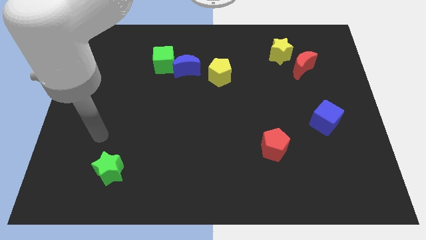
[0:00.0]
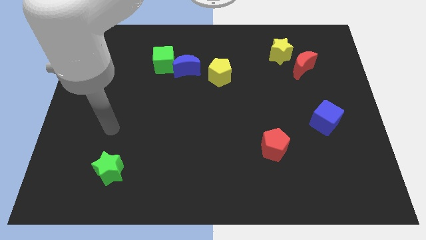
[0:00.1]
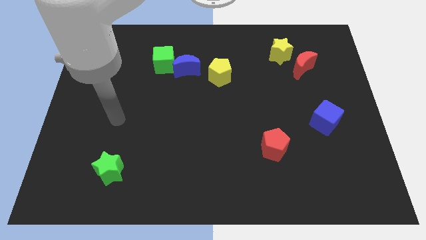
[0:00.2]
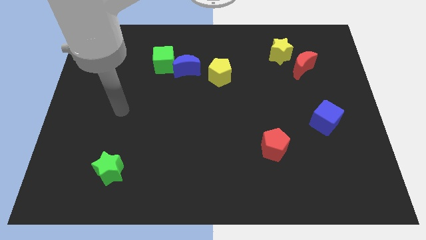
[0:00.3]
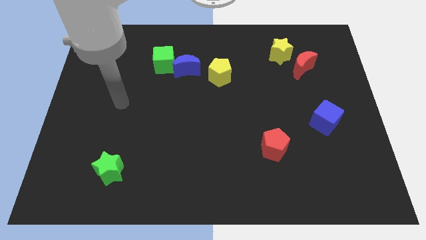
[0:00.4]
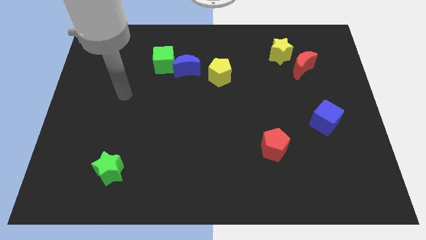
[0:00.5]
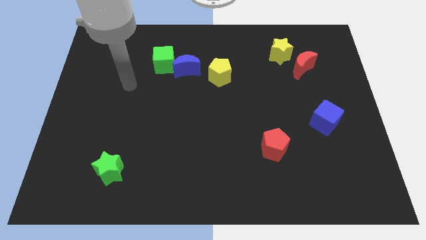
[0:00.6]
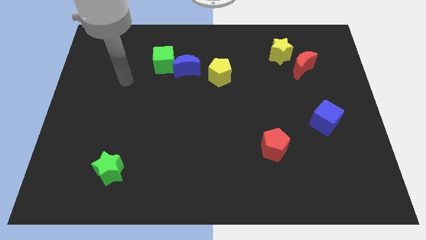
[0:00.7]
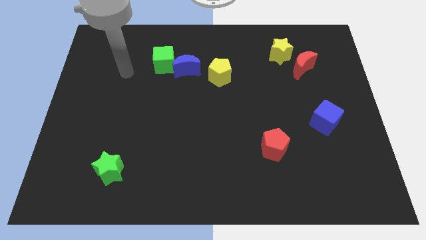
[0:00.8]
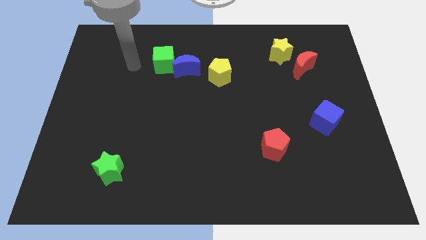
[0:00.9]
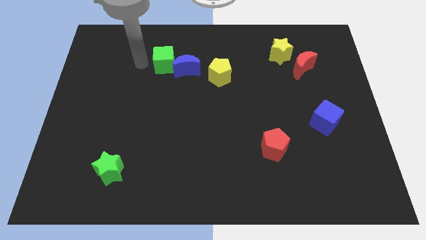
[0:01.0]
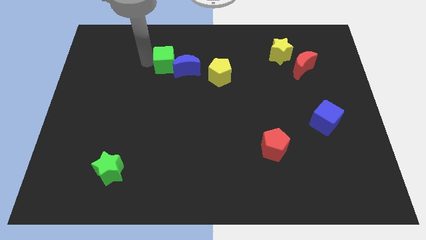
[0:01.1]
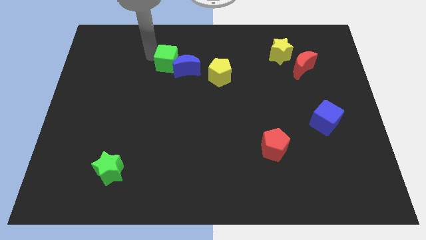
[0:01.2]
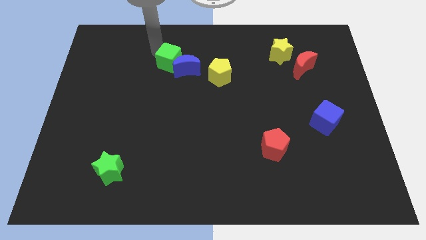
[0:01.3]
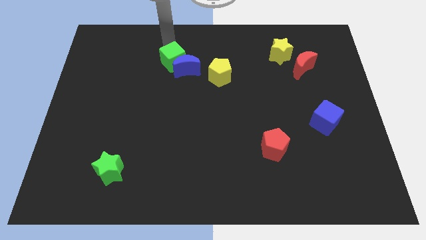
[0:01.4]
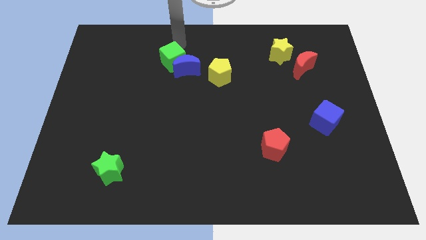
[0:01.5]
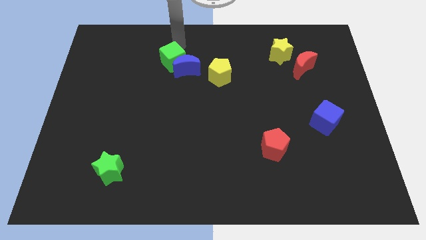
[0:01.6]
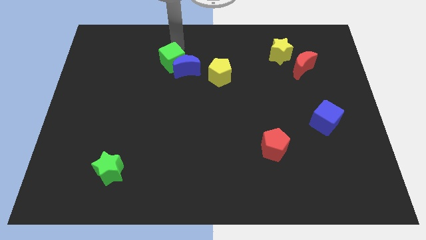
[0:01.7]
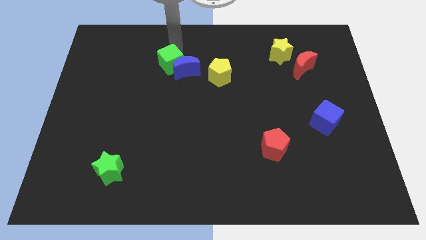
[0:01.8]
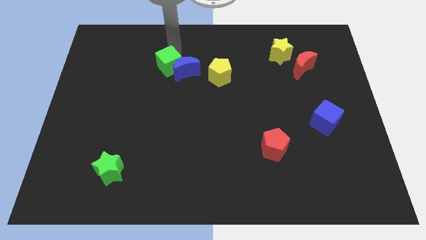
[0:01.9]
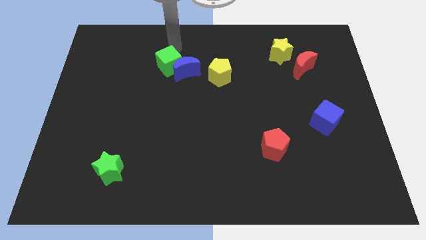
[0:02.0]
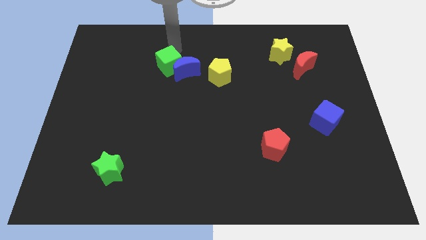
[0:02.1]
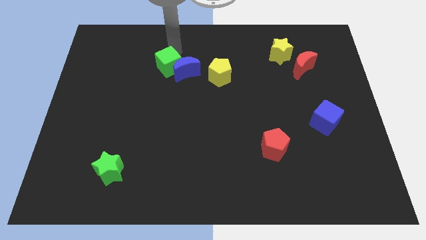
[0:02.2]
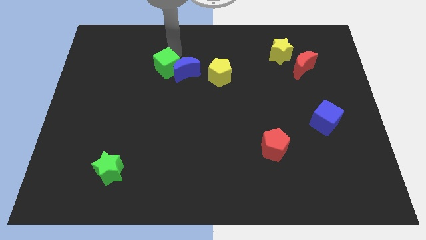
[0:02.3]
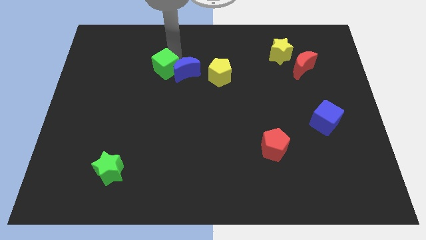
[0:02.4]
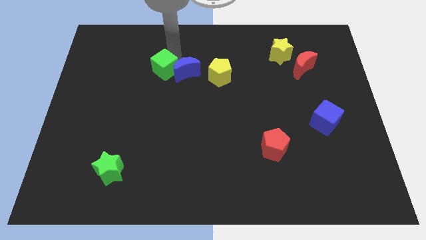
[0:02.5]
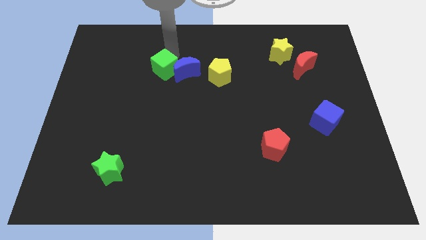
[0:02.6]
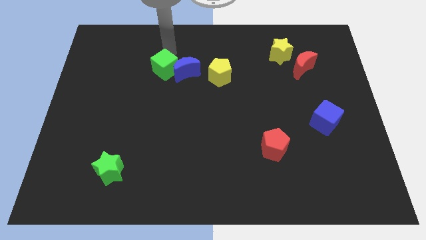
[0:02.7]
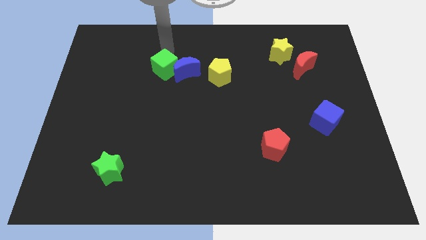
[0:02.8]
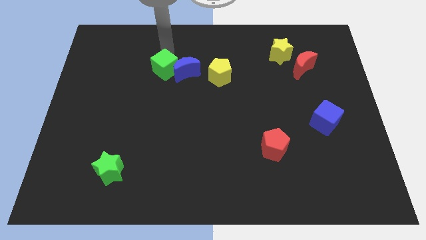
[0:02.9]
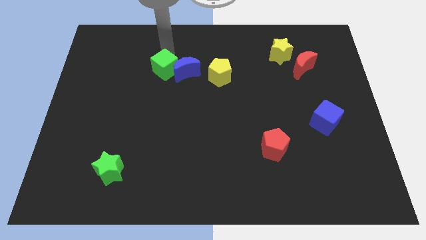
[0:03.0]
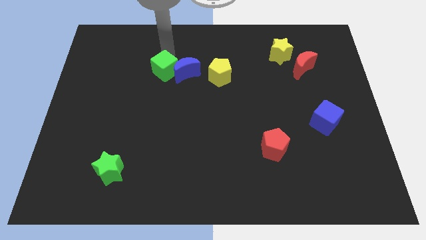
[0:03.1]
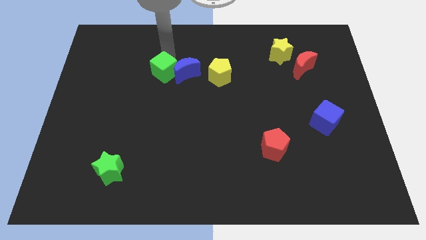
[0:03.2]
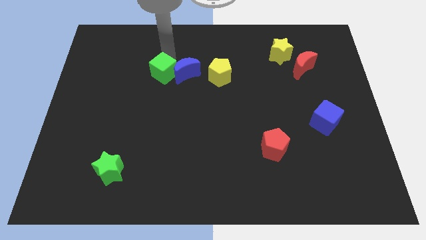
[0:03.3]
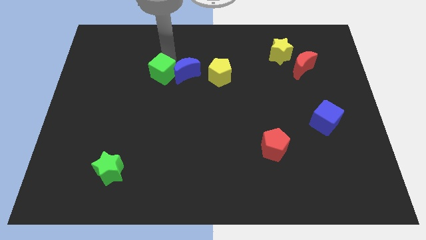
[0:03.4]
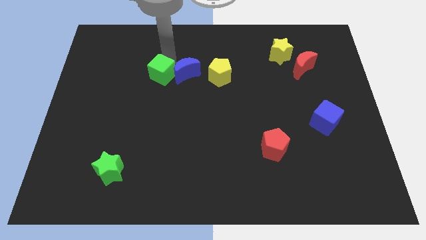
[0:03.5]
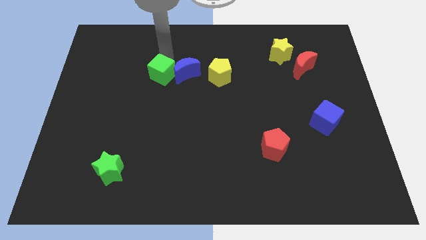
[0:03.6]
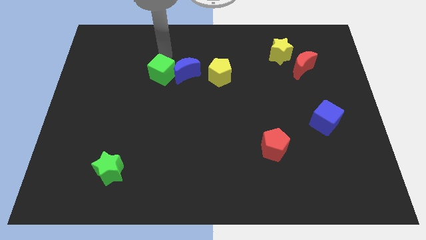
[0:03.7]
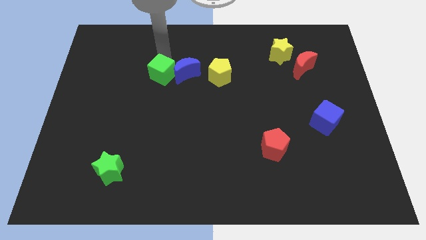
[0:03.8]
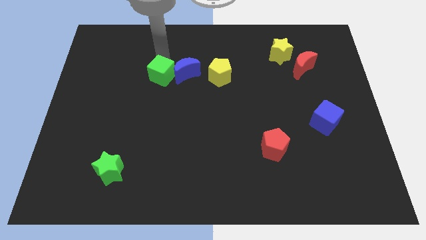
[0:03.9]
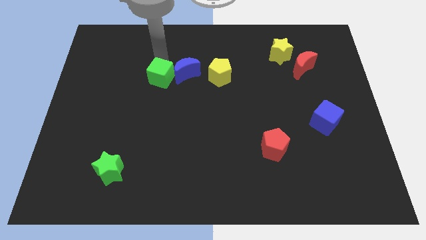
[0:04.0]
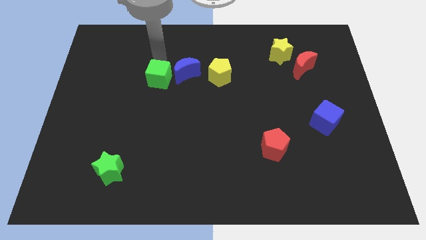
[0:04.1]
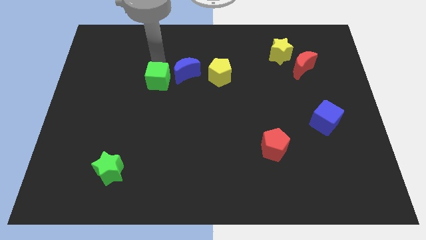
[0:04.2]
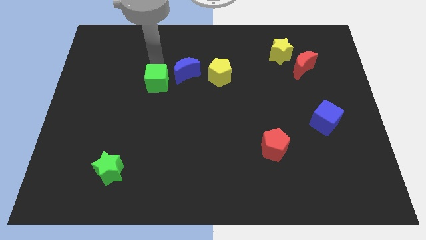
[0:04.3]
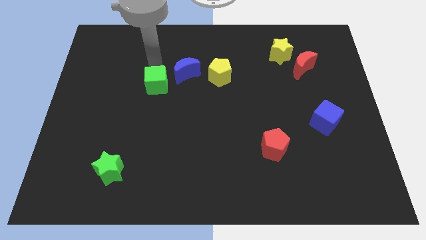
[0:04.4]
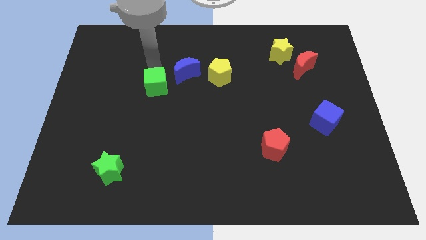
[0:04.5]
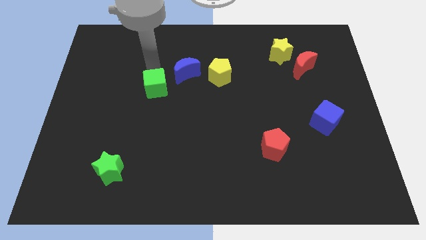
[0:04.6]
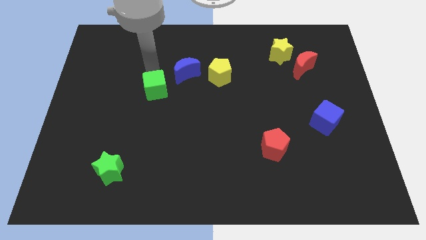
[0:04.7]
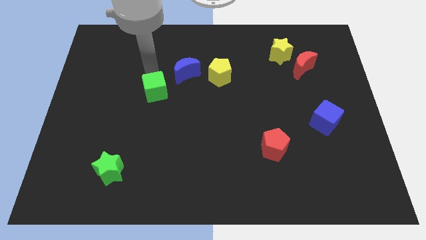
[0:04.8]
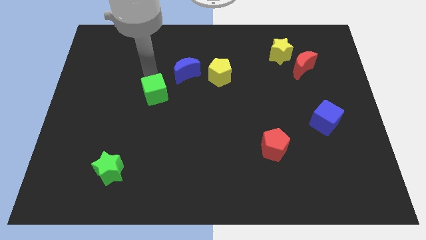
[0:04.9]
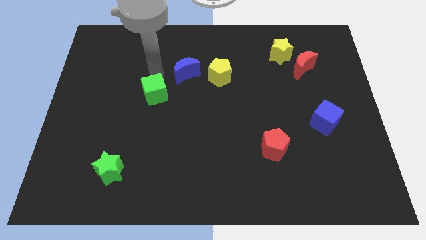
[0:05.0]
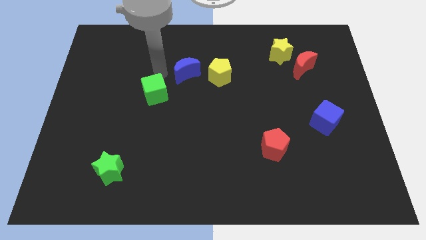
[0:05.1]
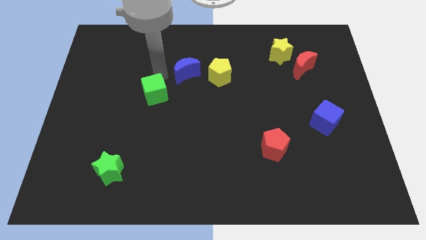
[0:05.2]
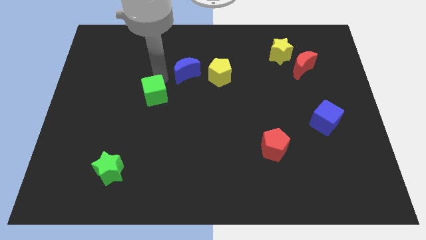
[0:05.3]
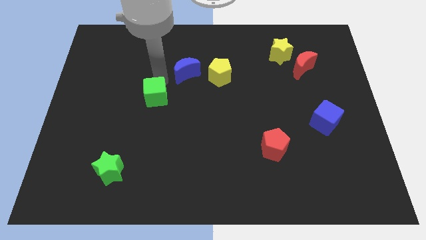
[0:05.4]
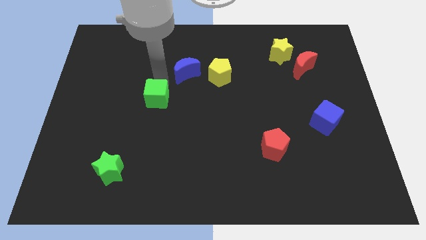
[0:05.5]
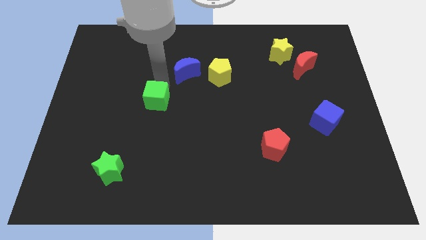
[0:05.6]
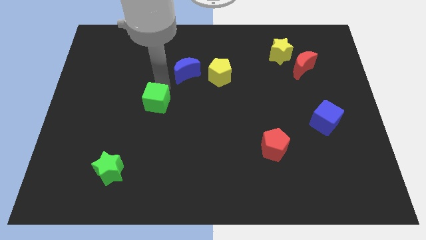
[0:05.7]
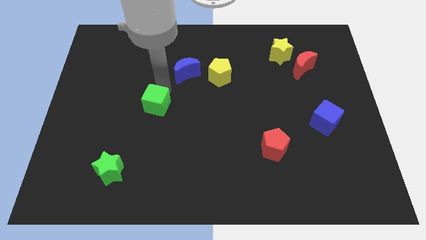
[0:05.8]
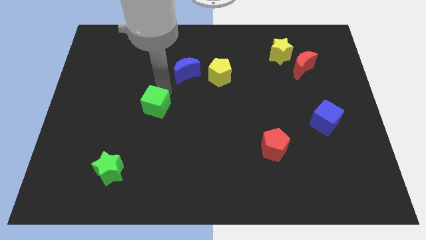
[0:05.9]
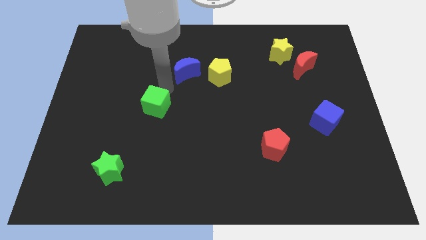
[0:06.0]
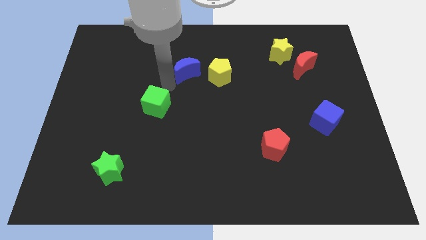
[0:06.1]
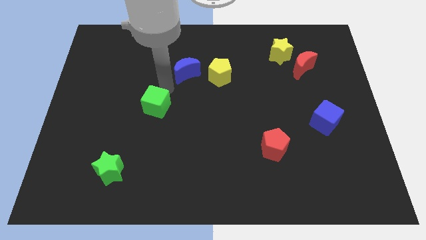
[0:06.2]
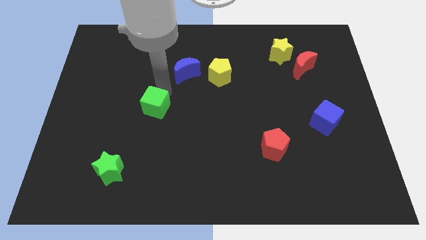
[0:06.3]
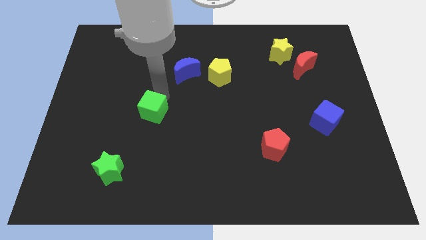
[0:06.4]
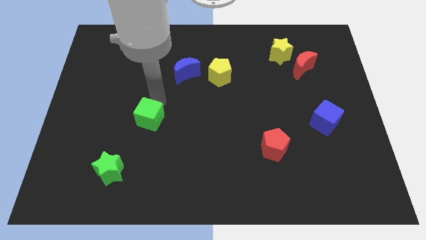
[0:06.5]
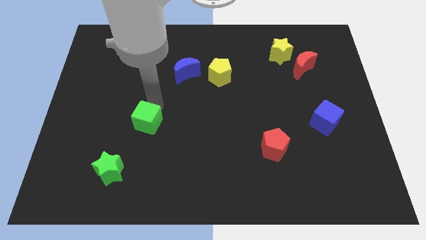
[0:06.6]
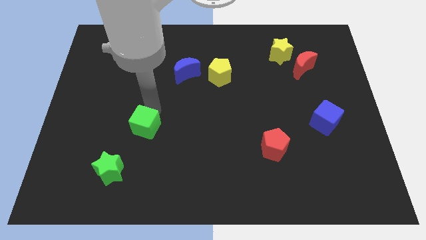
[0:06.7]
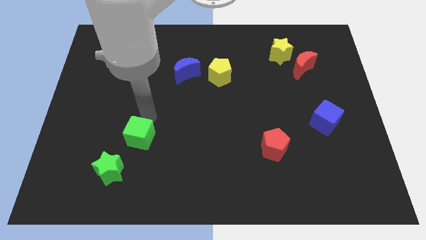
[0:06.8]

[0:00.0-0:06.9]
push the green cube down

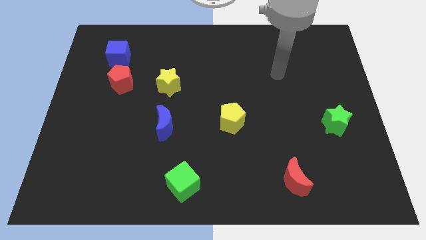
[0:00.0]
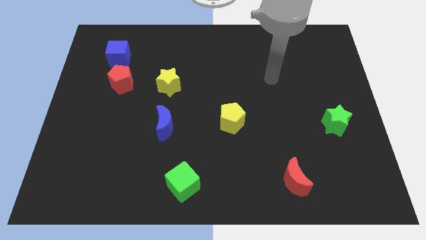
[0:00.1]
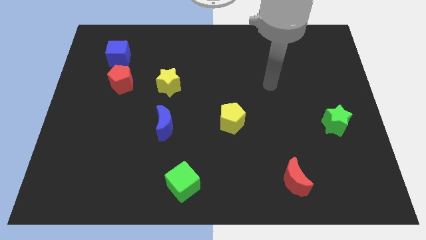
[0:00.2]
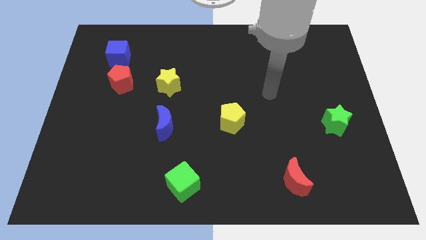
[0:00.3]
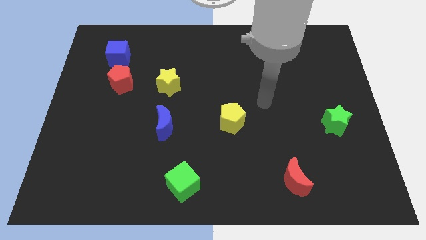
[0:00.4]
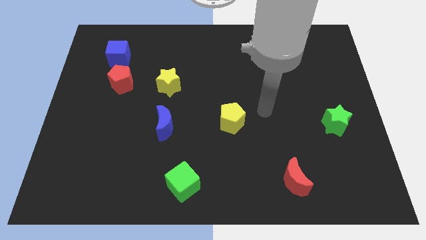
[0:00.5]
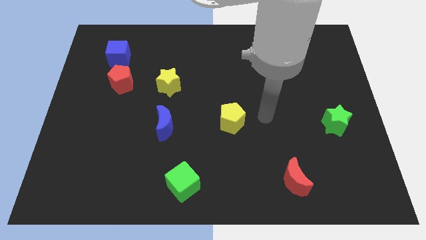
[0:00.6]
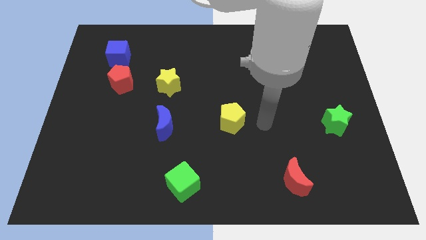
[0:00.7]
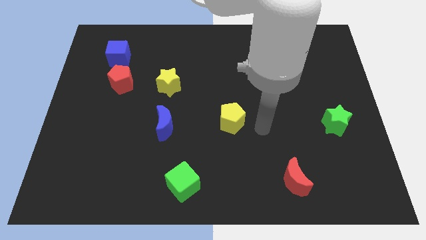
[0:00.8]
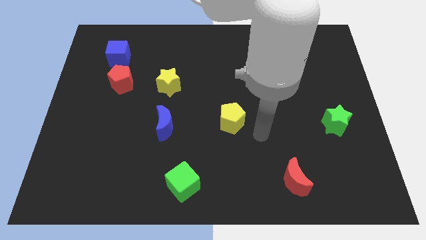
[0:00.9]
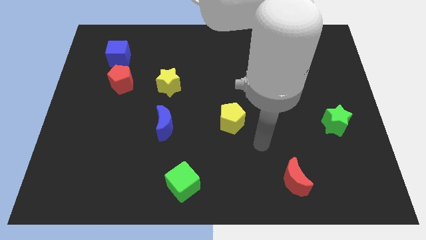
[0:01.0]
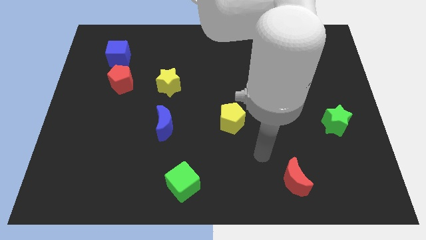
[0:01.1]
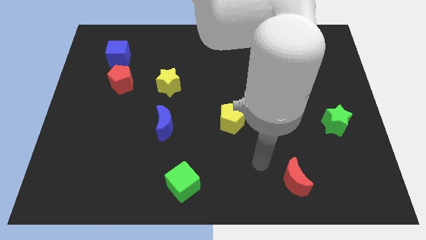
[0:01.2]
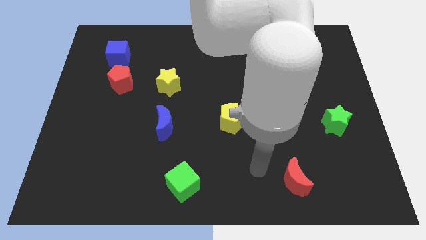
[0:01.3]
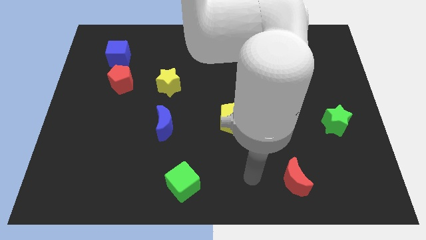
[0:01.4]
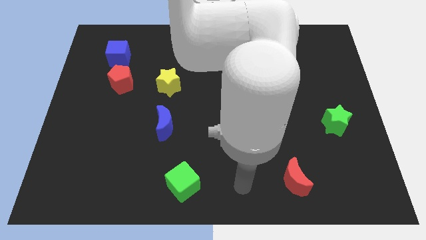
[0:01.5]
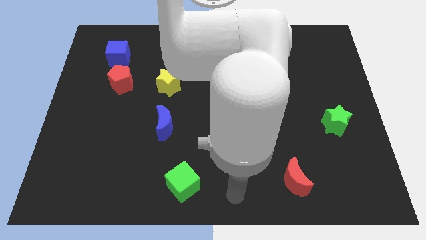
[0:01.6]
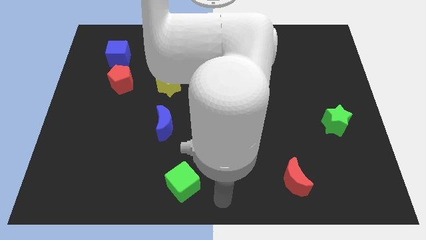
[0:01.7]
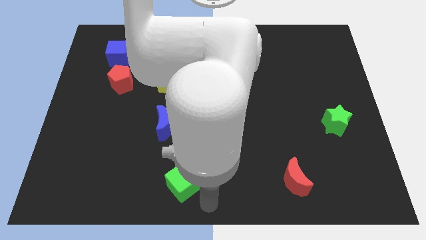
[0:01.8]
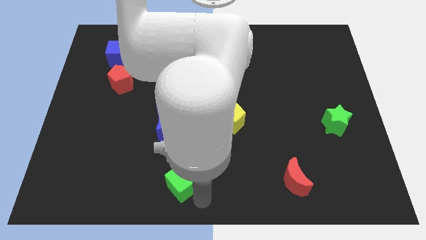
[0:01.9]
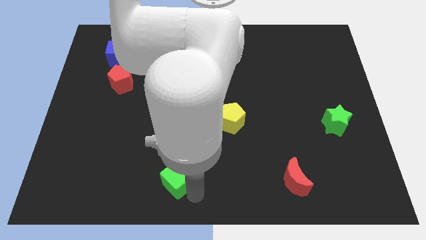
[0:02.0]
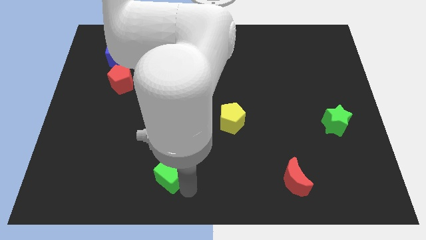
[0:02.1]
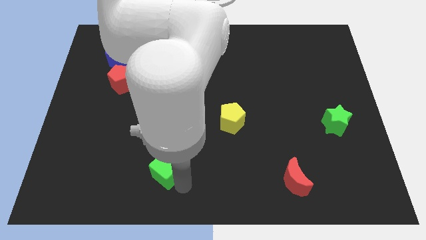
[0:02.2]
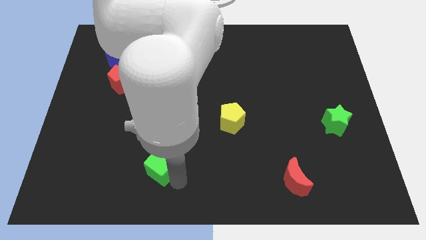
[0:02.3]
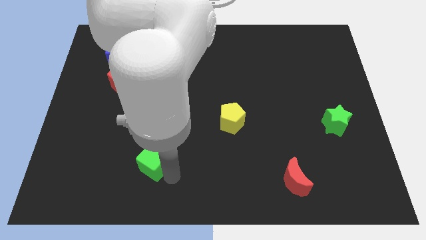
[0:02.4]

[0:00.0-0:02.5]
slightly push the green cube up and left diagonally
